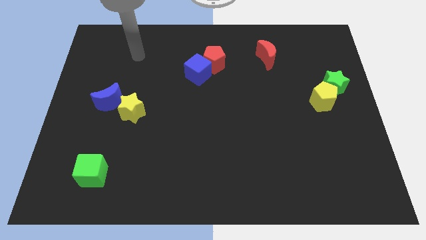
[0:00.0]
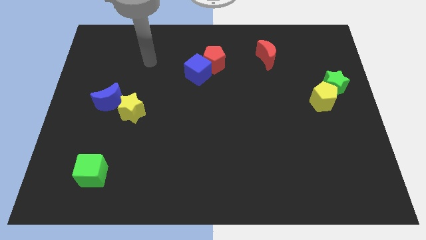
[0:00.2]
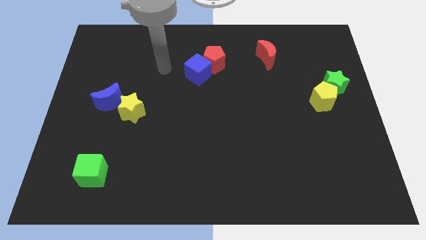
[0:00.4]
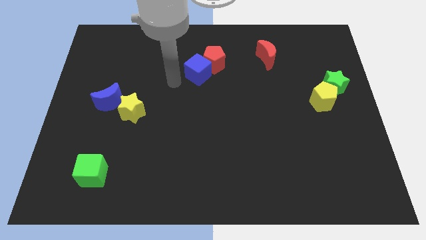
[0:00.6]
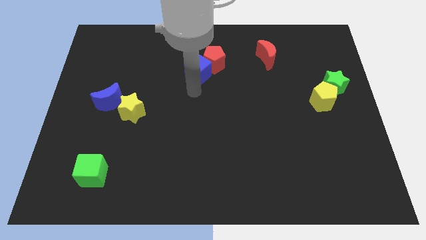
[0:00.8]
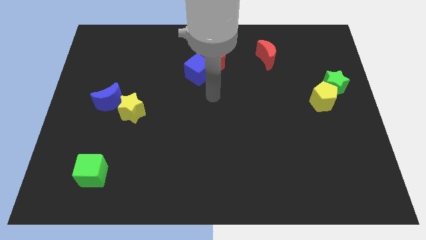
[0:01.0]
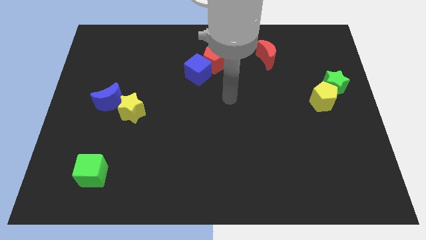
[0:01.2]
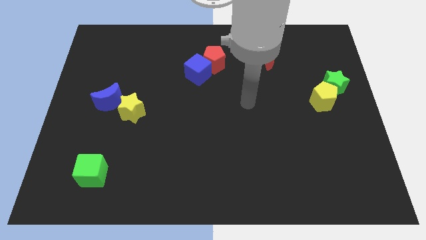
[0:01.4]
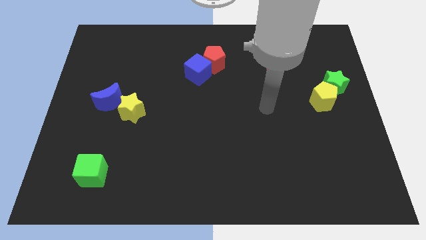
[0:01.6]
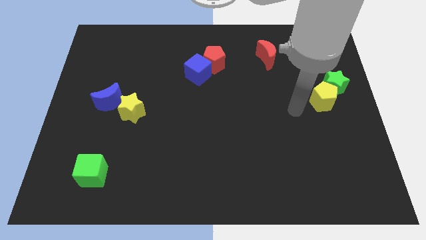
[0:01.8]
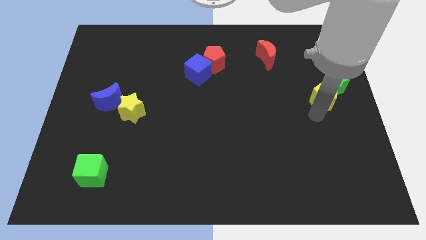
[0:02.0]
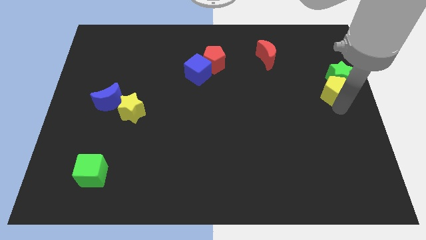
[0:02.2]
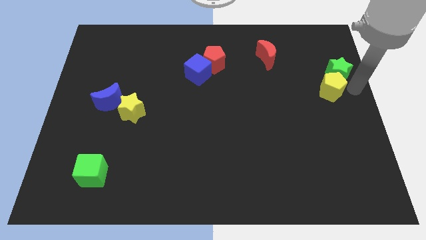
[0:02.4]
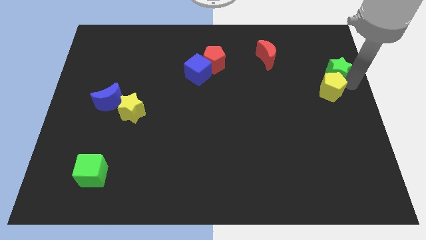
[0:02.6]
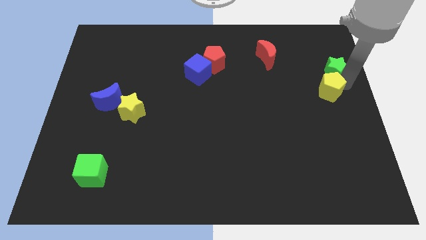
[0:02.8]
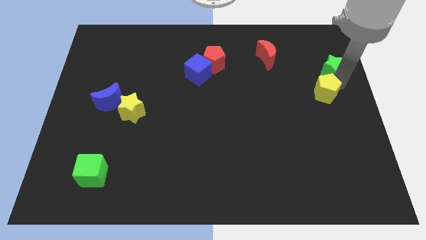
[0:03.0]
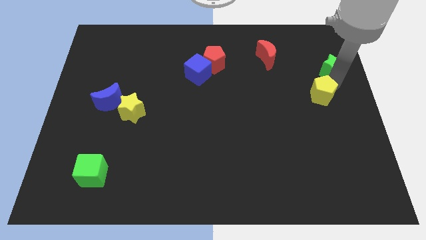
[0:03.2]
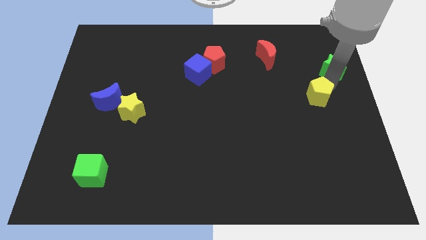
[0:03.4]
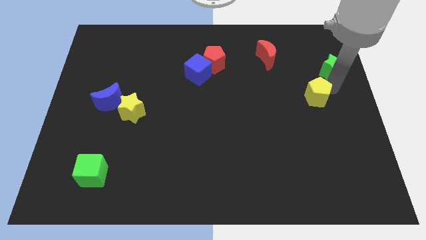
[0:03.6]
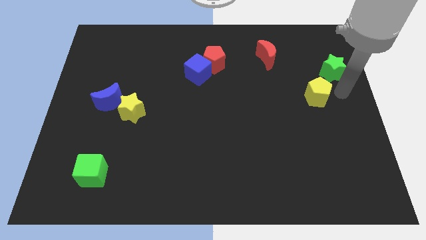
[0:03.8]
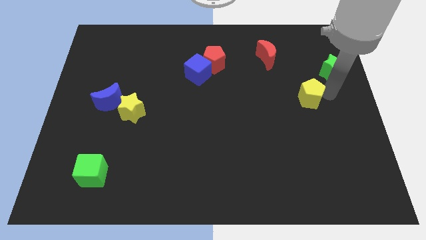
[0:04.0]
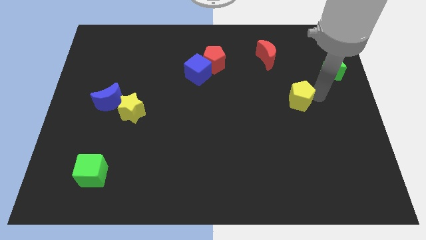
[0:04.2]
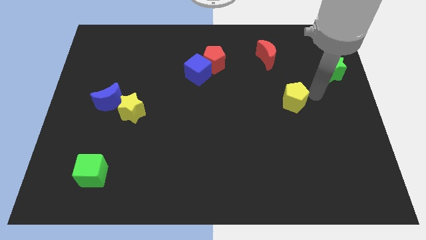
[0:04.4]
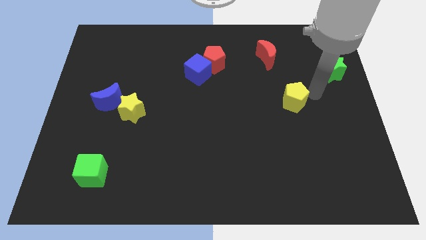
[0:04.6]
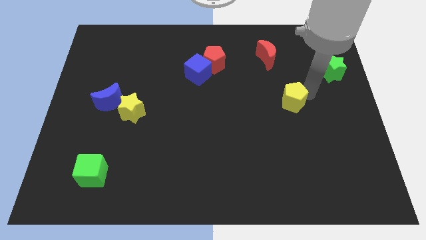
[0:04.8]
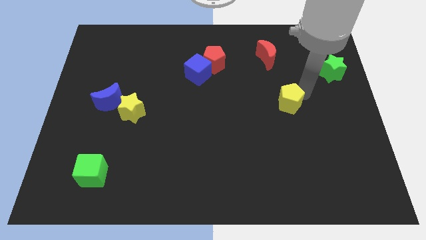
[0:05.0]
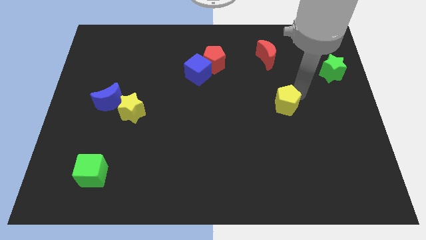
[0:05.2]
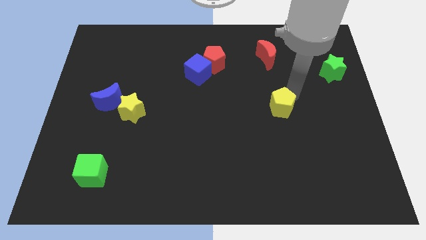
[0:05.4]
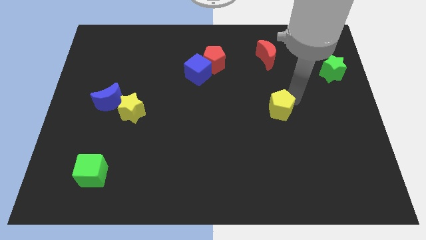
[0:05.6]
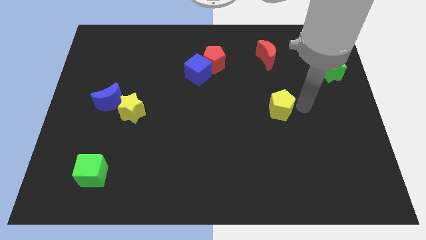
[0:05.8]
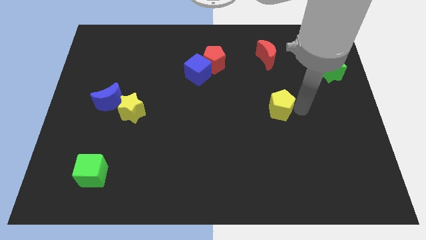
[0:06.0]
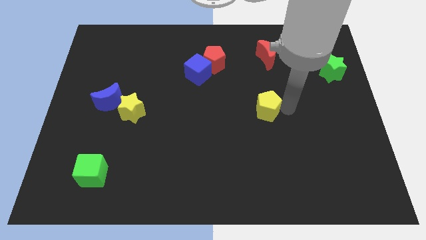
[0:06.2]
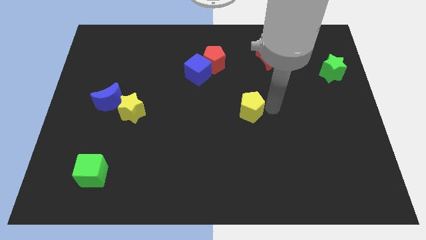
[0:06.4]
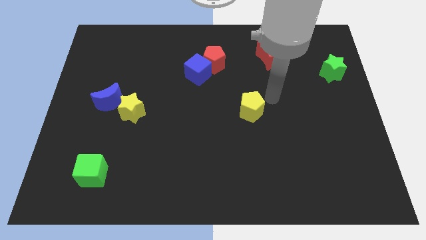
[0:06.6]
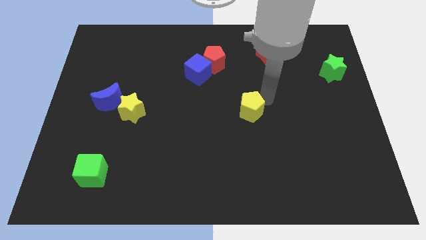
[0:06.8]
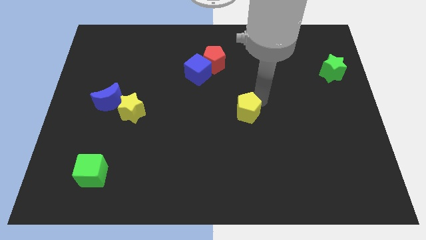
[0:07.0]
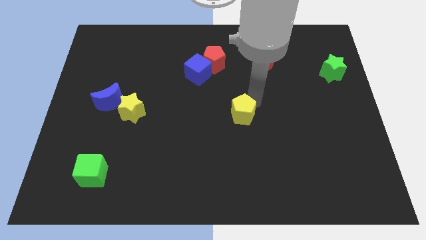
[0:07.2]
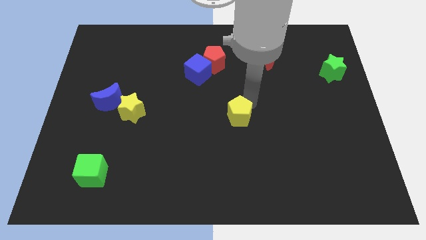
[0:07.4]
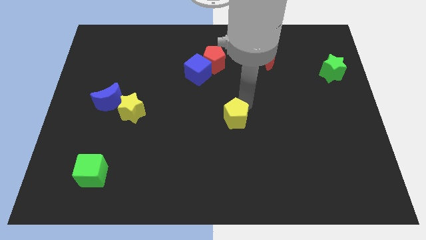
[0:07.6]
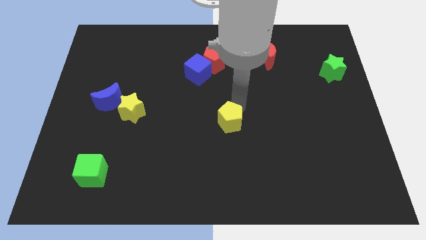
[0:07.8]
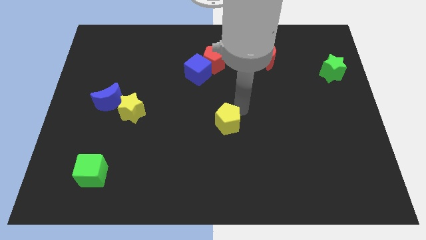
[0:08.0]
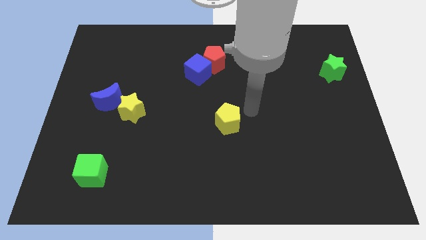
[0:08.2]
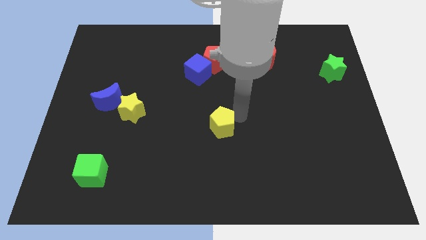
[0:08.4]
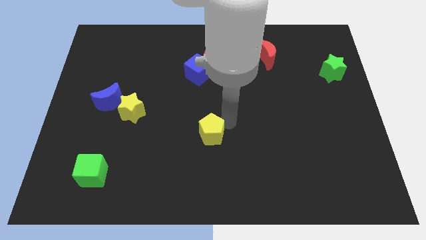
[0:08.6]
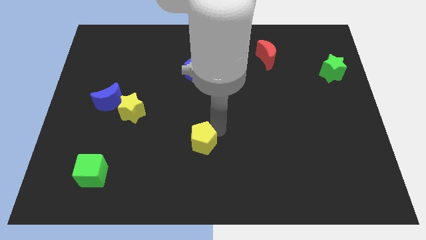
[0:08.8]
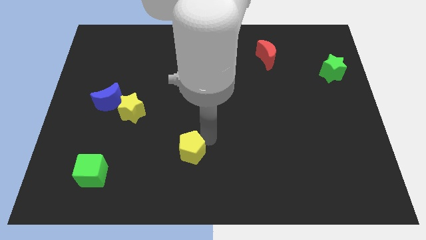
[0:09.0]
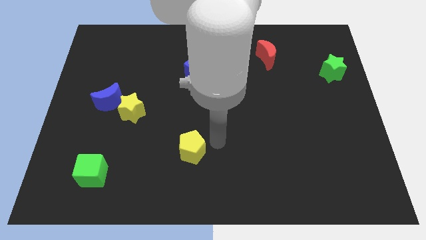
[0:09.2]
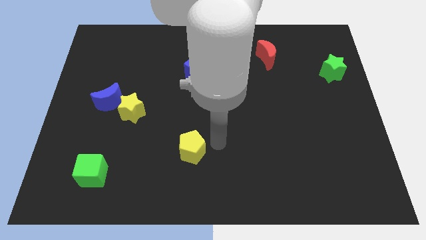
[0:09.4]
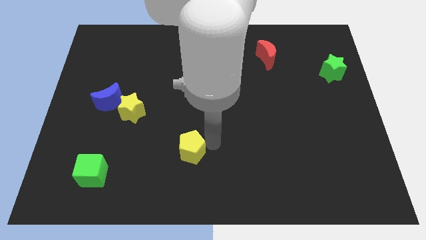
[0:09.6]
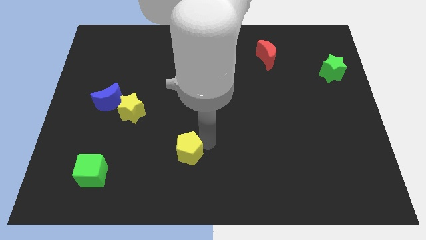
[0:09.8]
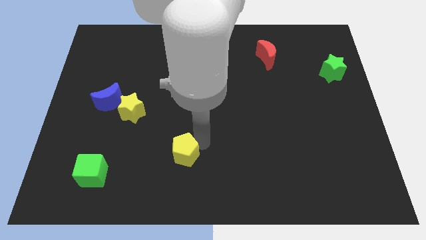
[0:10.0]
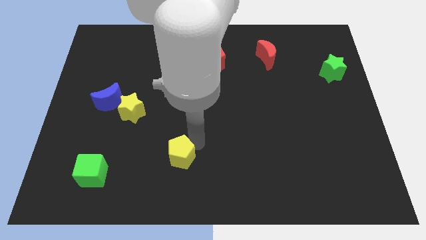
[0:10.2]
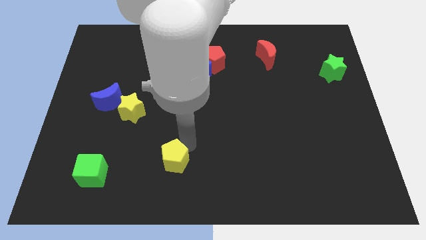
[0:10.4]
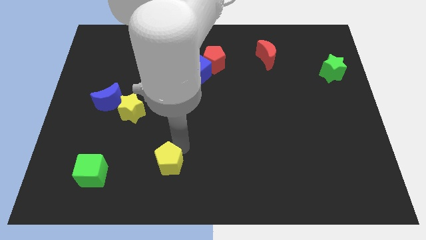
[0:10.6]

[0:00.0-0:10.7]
push the yellow pentagon to the right side of the green cube

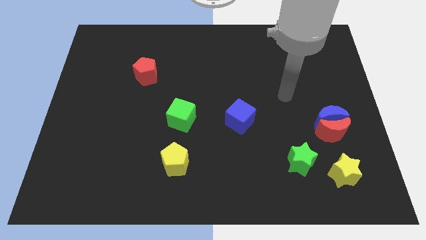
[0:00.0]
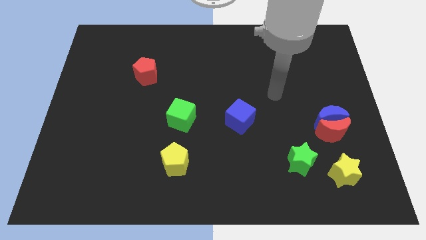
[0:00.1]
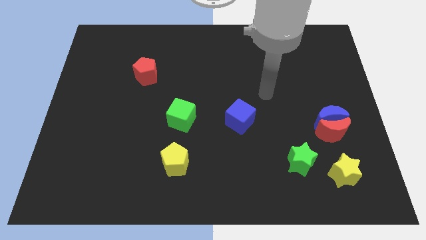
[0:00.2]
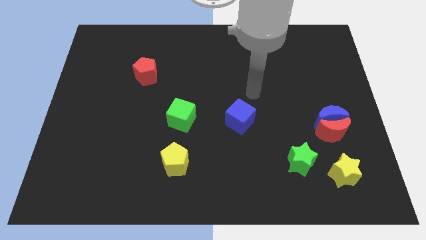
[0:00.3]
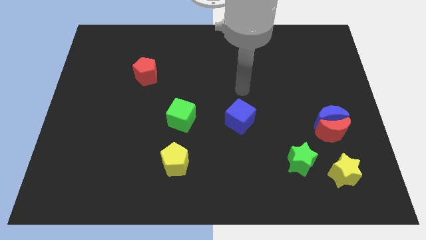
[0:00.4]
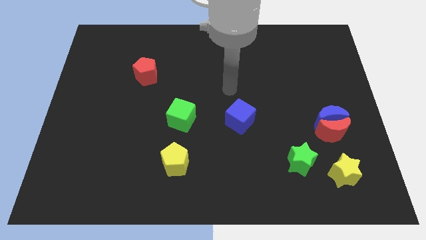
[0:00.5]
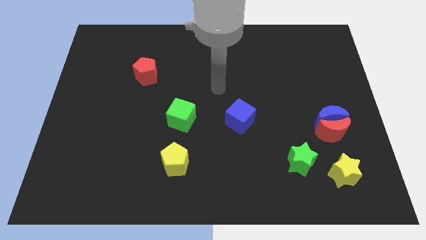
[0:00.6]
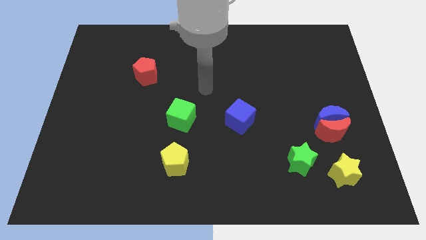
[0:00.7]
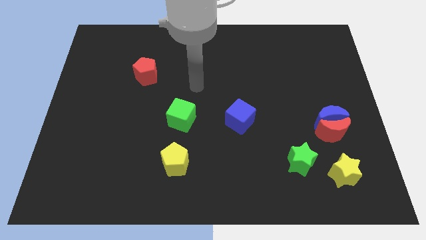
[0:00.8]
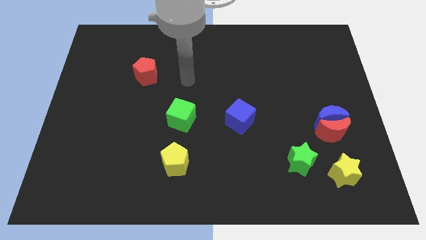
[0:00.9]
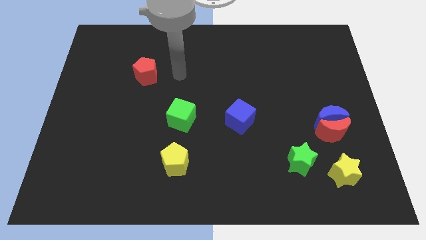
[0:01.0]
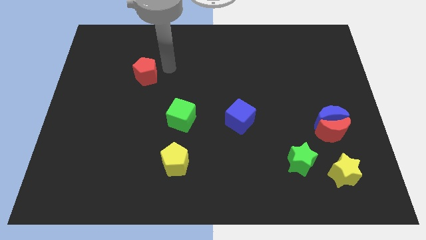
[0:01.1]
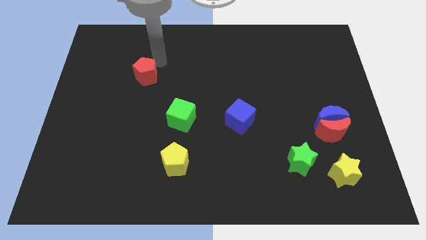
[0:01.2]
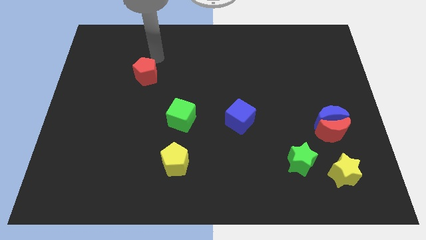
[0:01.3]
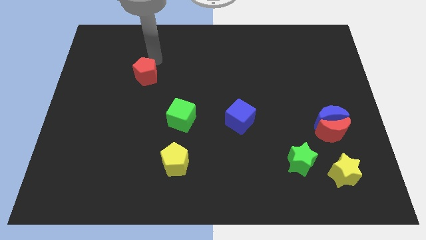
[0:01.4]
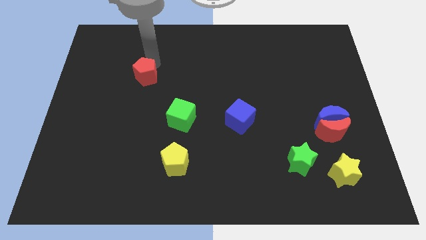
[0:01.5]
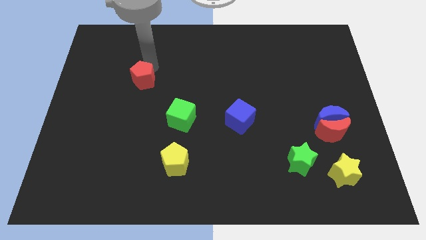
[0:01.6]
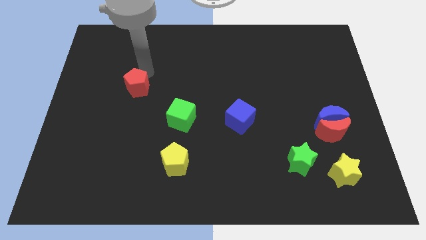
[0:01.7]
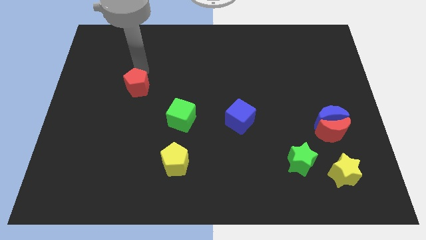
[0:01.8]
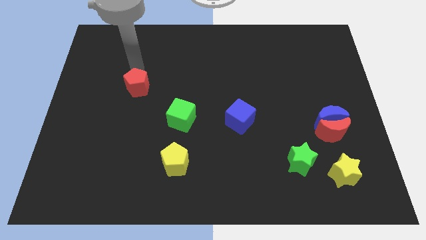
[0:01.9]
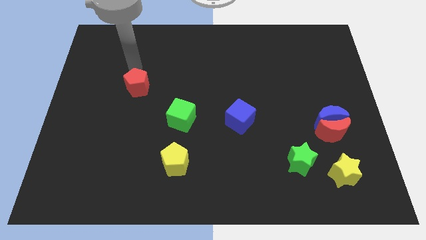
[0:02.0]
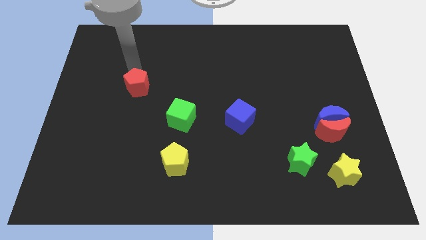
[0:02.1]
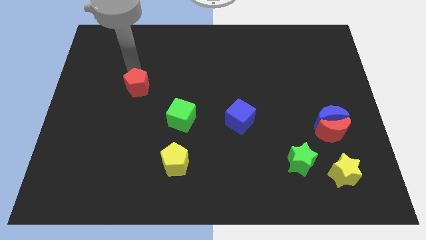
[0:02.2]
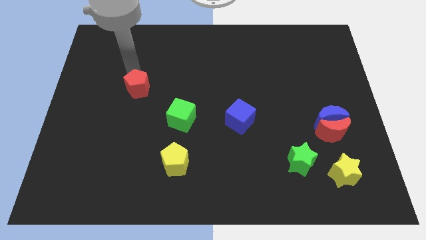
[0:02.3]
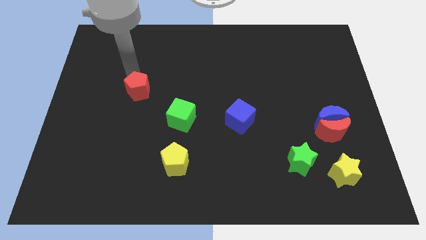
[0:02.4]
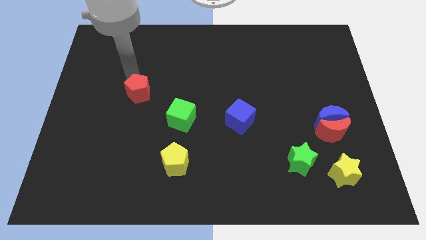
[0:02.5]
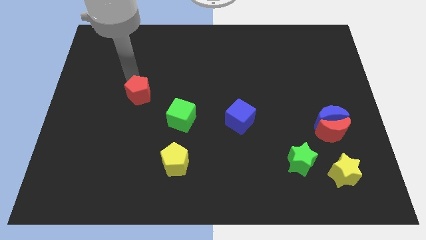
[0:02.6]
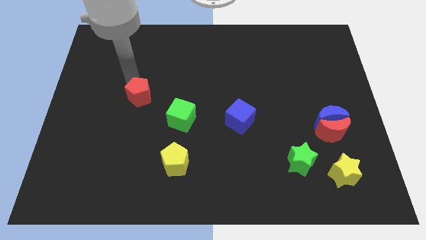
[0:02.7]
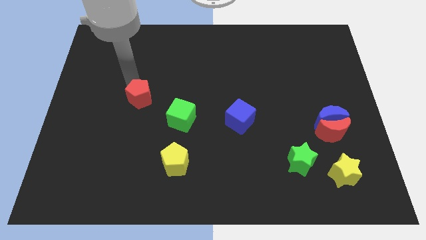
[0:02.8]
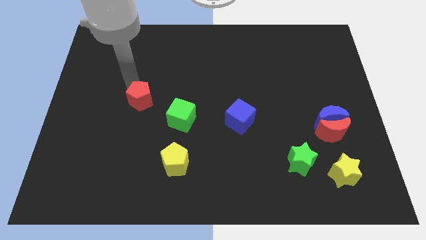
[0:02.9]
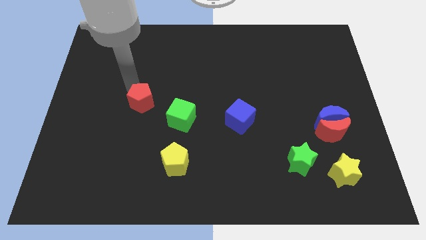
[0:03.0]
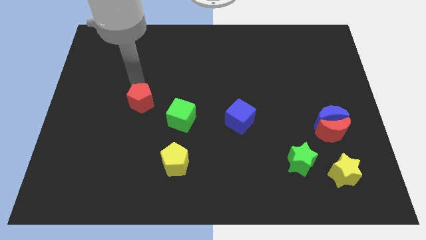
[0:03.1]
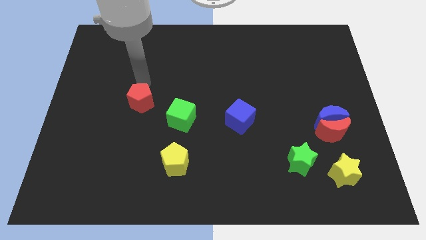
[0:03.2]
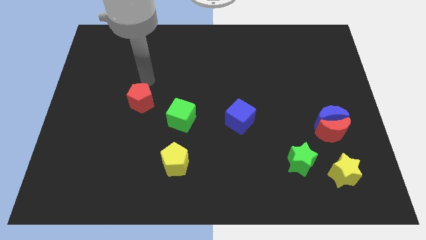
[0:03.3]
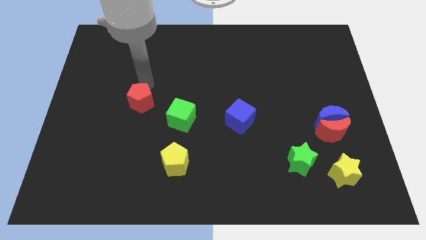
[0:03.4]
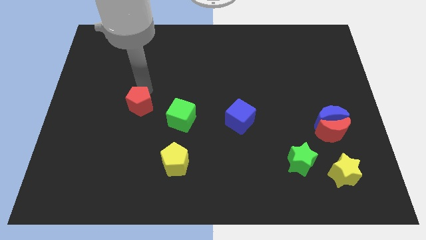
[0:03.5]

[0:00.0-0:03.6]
slide the red pentagon to the left of the green cube
